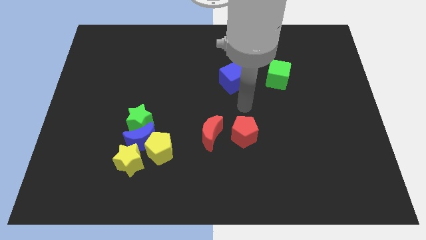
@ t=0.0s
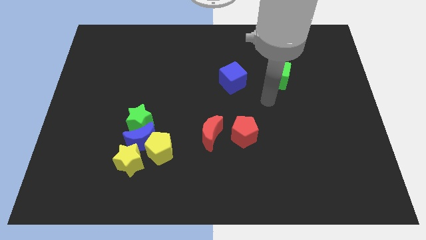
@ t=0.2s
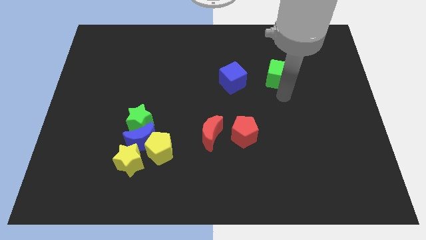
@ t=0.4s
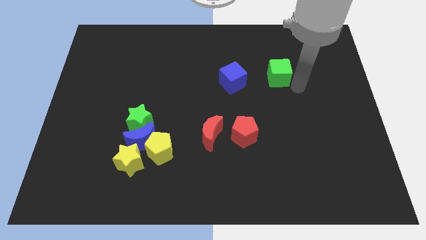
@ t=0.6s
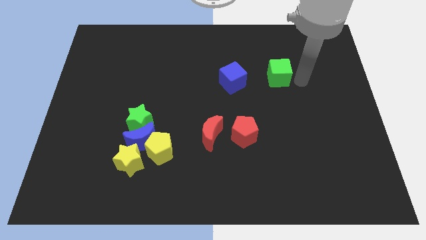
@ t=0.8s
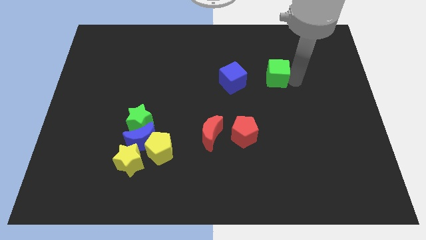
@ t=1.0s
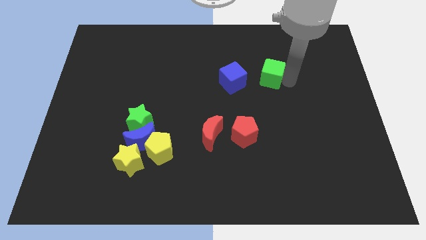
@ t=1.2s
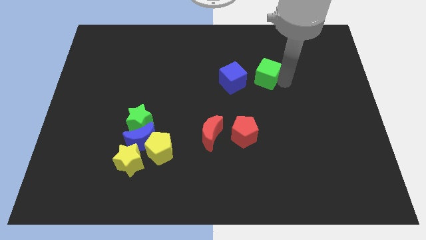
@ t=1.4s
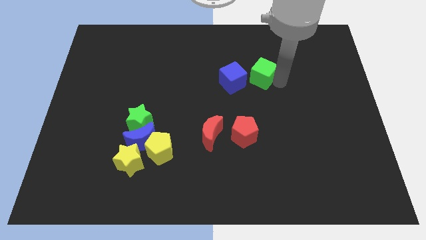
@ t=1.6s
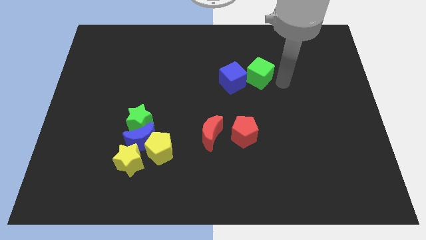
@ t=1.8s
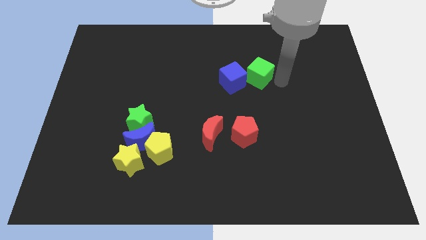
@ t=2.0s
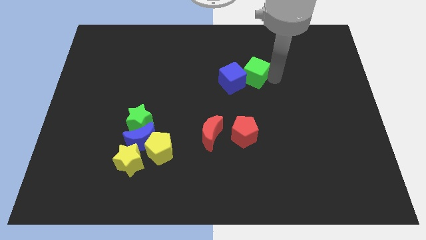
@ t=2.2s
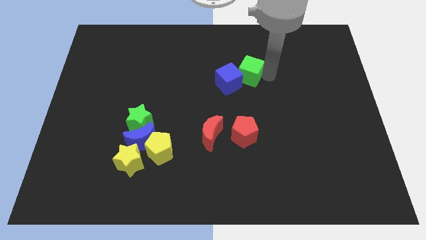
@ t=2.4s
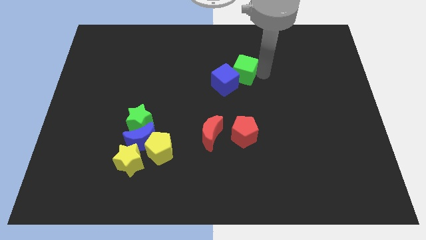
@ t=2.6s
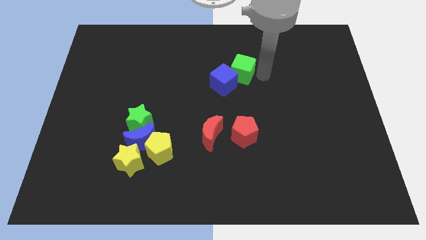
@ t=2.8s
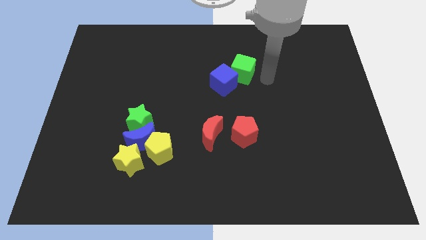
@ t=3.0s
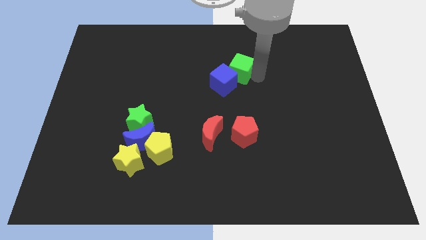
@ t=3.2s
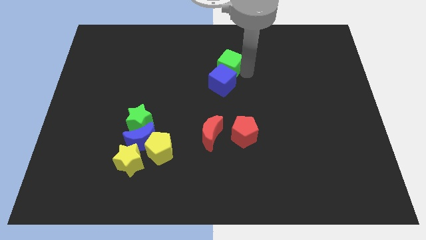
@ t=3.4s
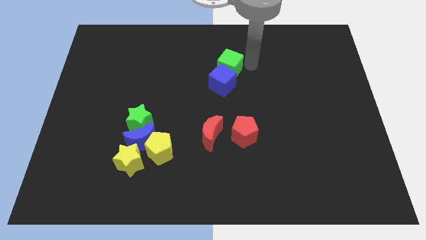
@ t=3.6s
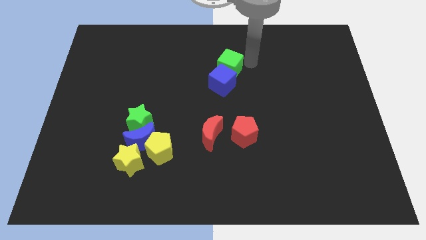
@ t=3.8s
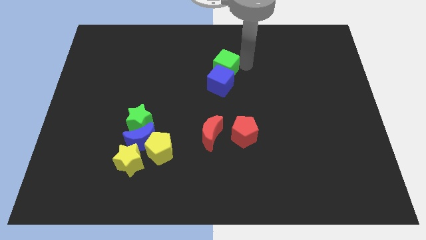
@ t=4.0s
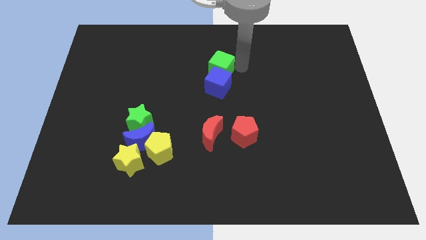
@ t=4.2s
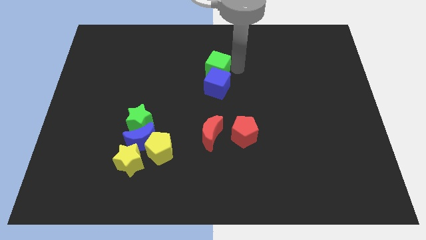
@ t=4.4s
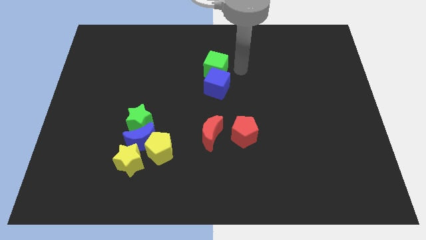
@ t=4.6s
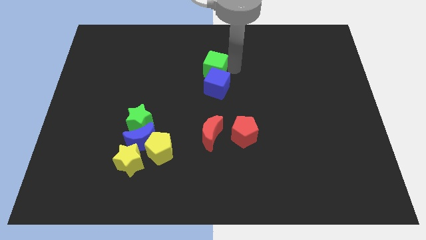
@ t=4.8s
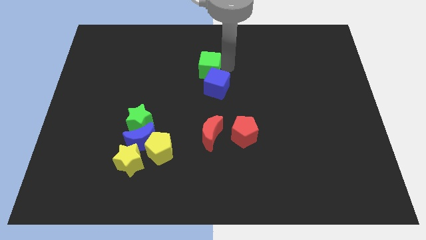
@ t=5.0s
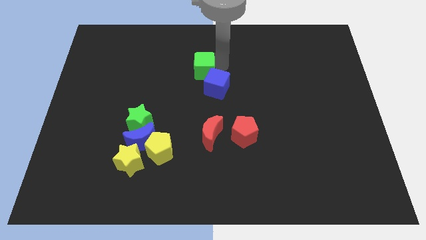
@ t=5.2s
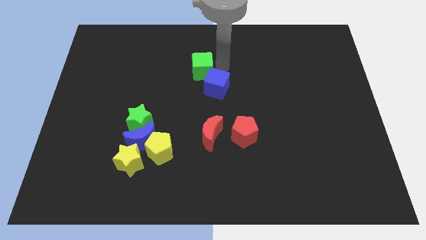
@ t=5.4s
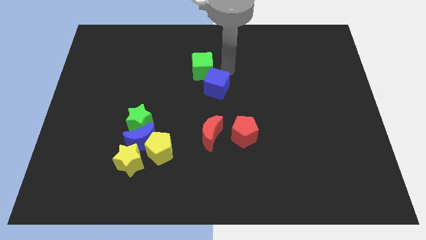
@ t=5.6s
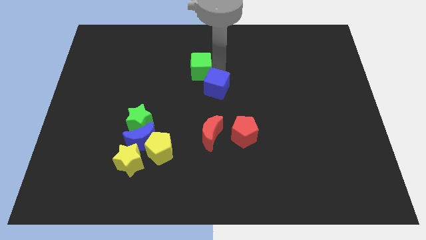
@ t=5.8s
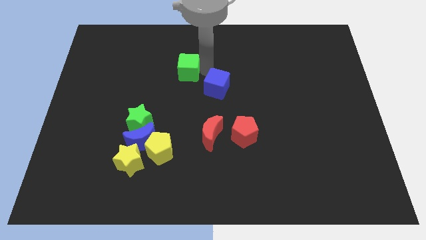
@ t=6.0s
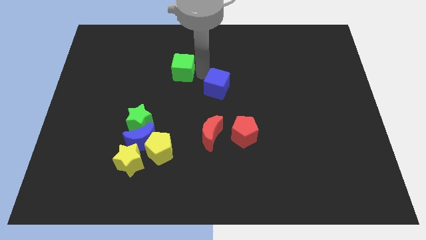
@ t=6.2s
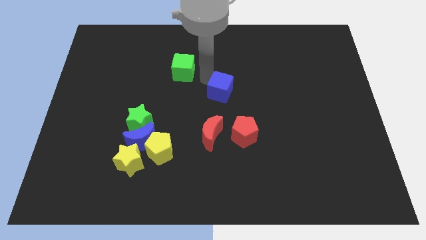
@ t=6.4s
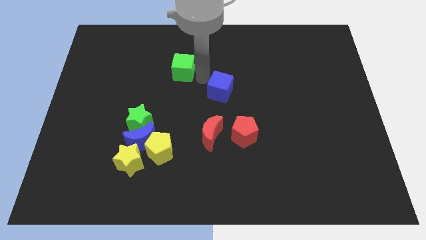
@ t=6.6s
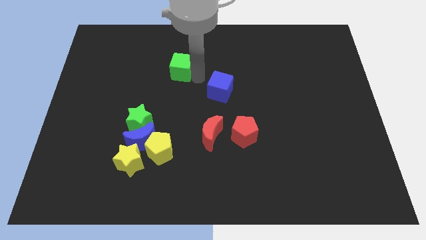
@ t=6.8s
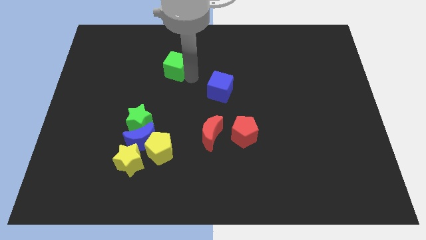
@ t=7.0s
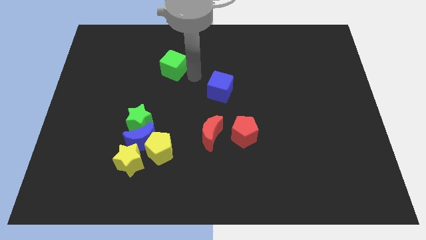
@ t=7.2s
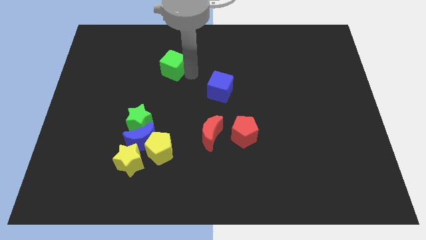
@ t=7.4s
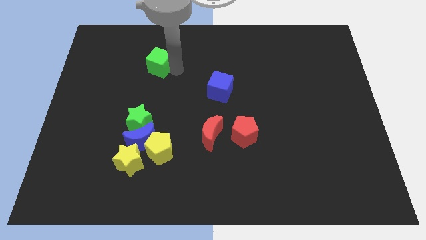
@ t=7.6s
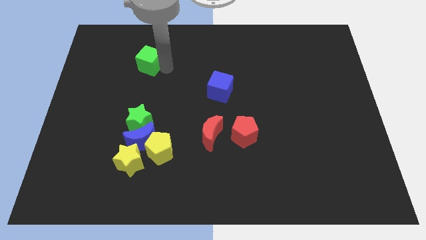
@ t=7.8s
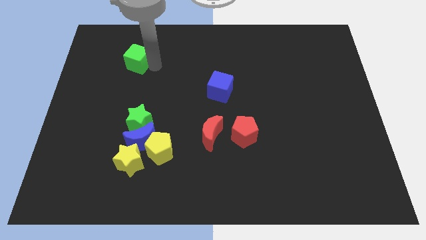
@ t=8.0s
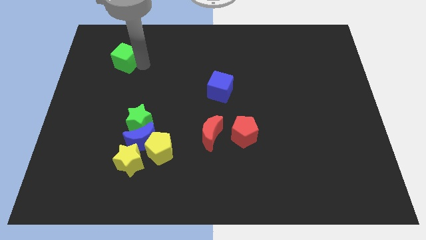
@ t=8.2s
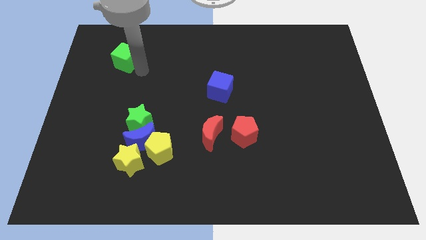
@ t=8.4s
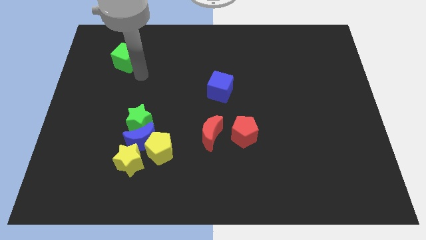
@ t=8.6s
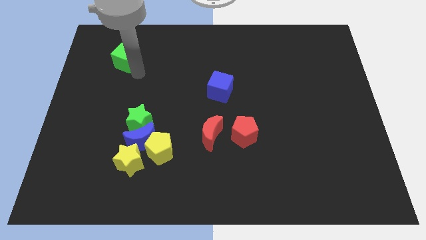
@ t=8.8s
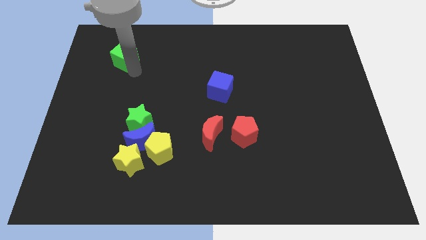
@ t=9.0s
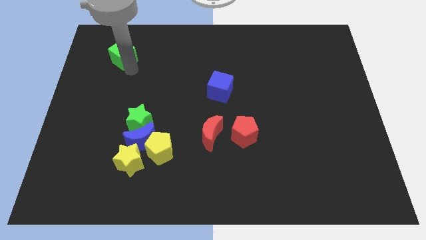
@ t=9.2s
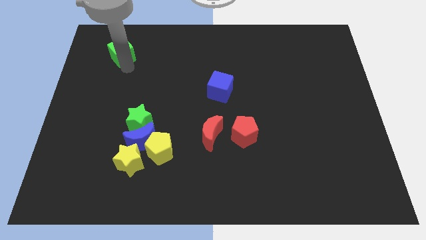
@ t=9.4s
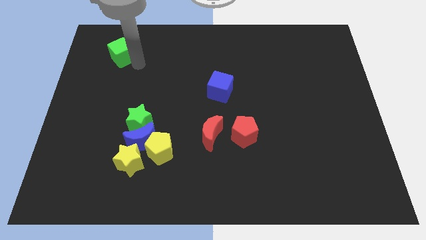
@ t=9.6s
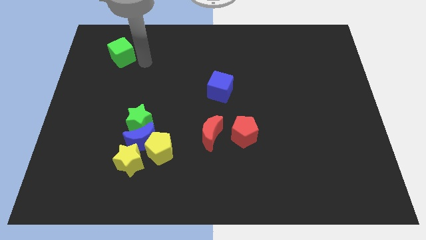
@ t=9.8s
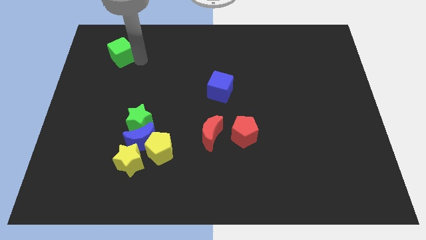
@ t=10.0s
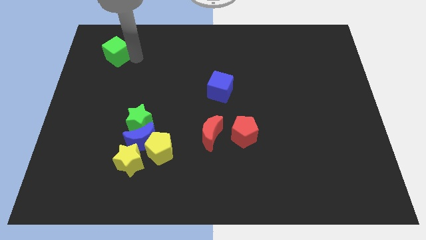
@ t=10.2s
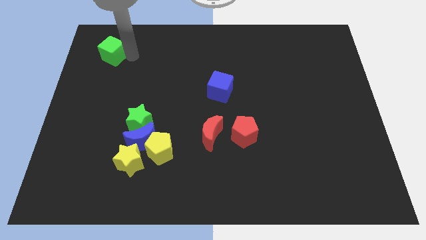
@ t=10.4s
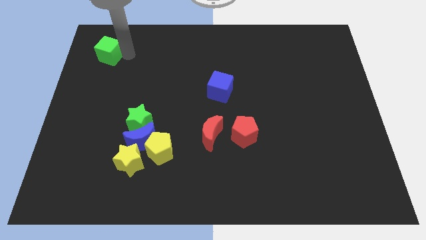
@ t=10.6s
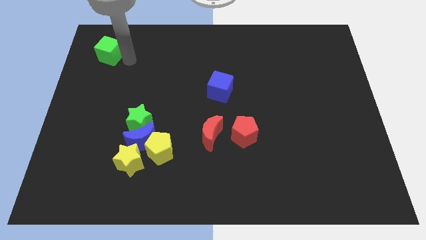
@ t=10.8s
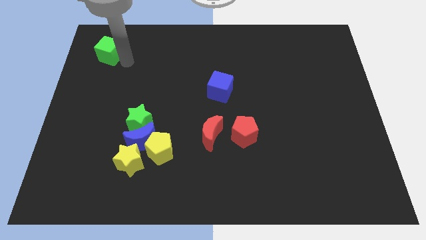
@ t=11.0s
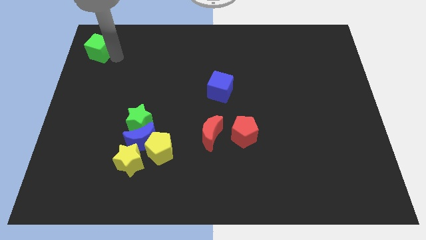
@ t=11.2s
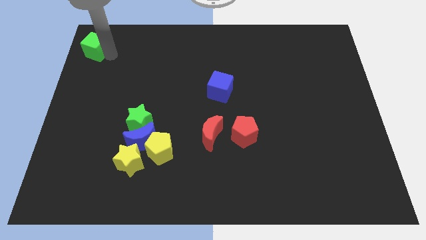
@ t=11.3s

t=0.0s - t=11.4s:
put the green cube to the top left corner

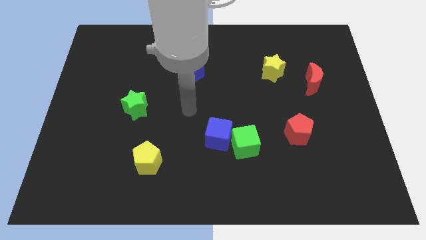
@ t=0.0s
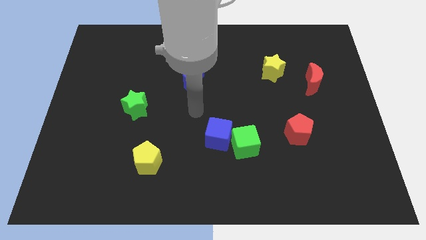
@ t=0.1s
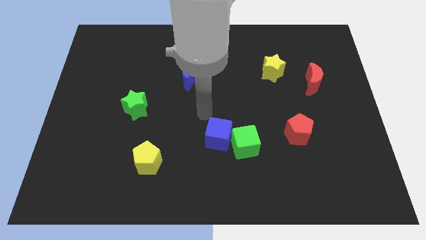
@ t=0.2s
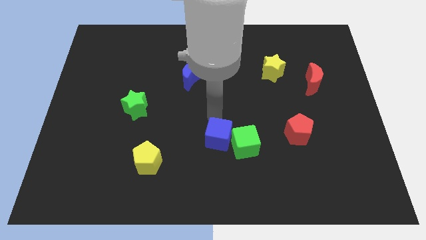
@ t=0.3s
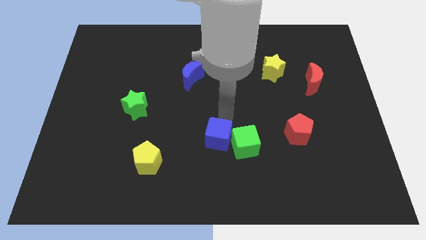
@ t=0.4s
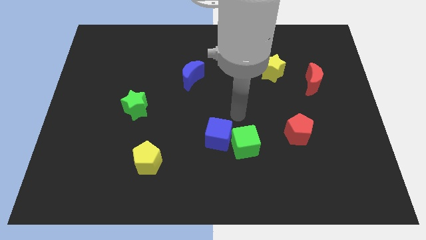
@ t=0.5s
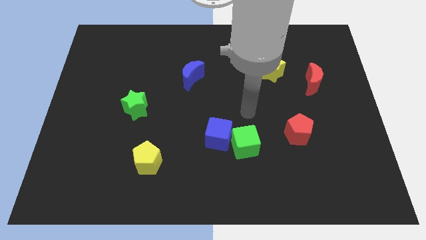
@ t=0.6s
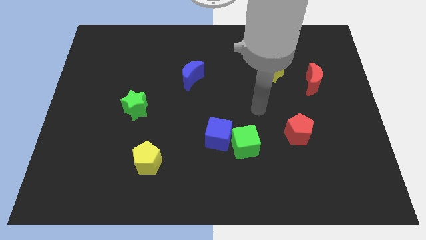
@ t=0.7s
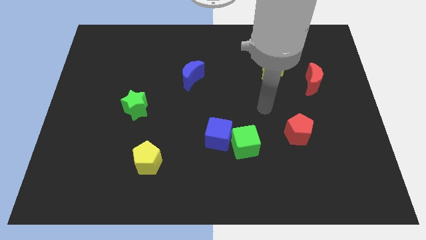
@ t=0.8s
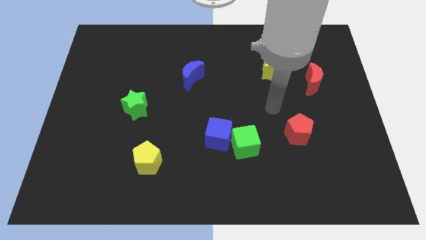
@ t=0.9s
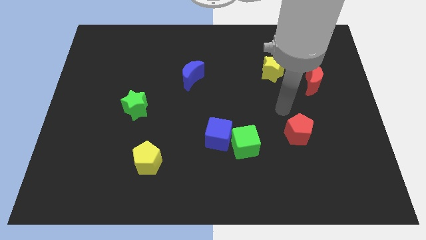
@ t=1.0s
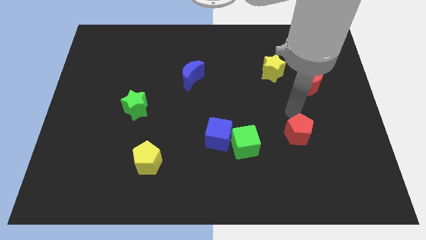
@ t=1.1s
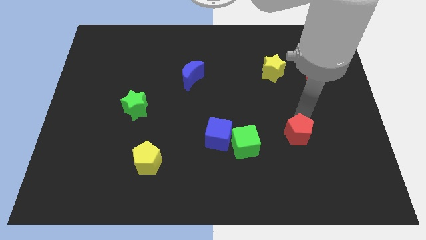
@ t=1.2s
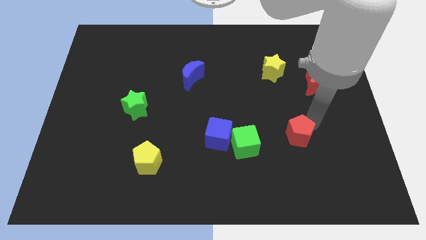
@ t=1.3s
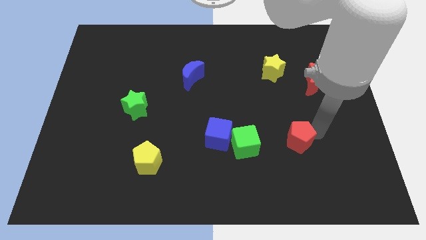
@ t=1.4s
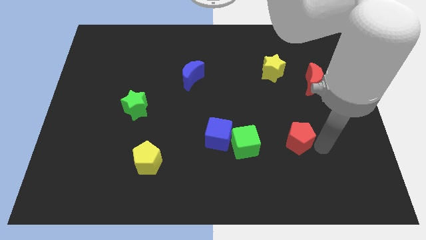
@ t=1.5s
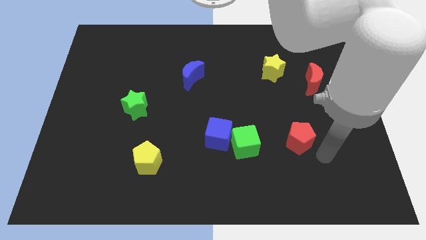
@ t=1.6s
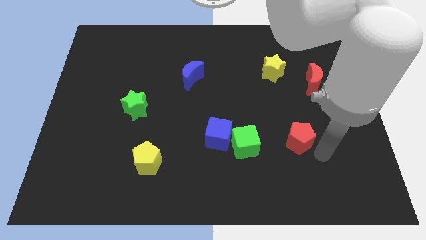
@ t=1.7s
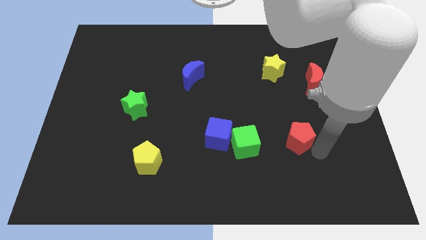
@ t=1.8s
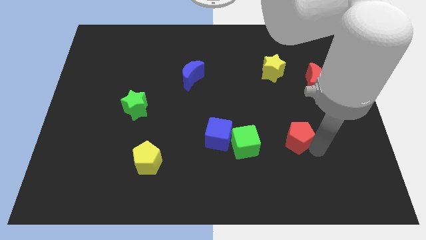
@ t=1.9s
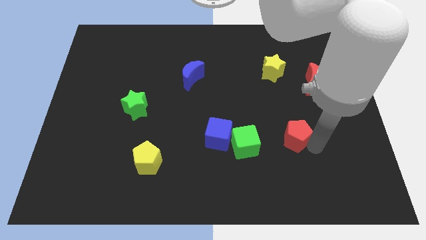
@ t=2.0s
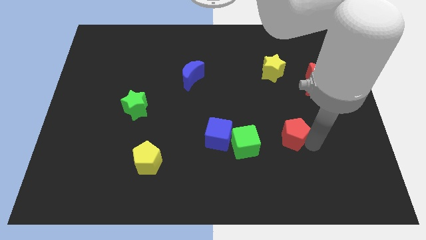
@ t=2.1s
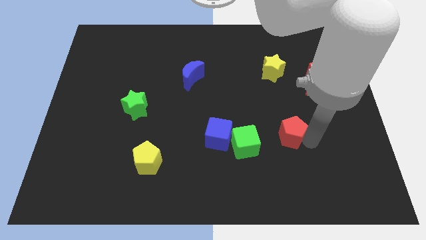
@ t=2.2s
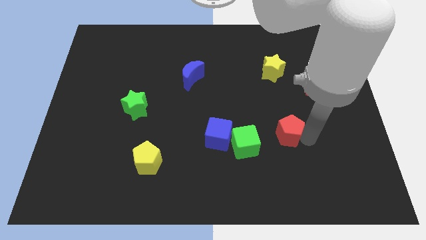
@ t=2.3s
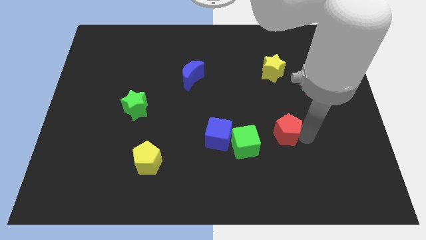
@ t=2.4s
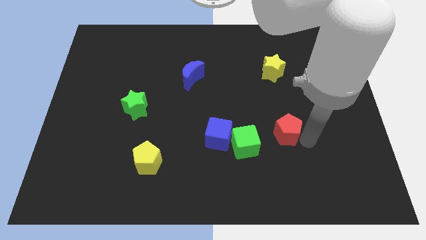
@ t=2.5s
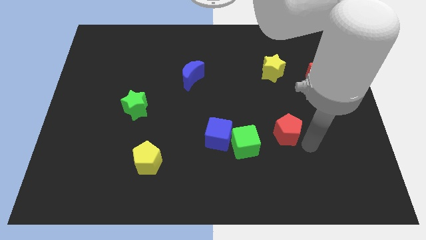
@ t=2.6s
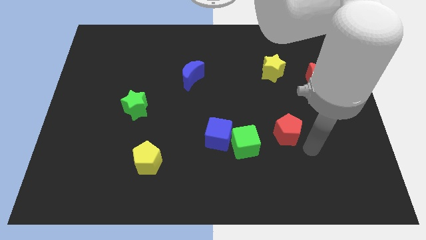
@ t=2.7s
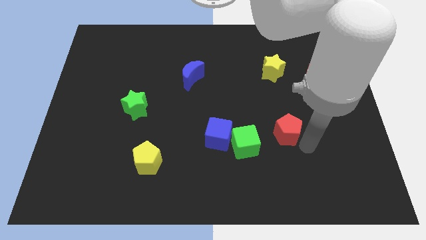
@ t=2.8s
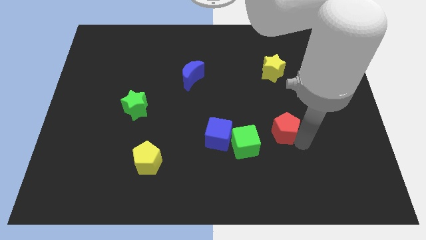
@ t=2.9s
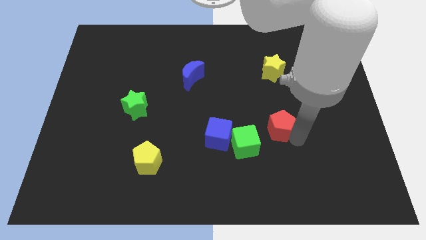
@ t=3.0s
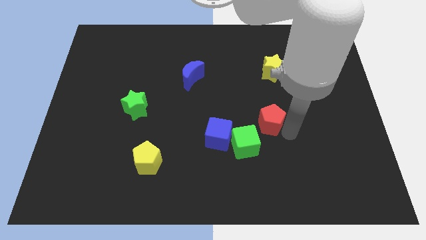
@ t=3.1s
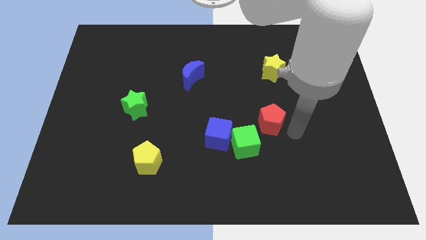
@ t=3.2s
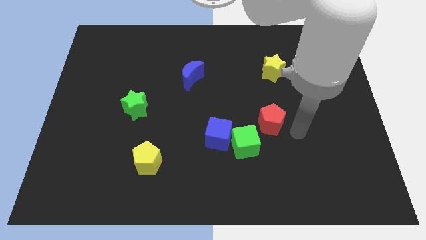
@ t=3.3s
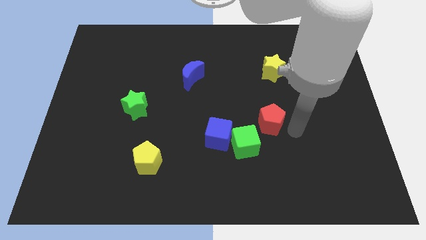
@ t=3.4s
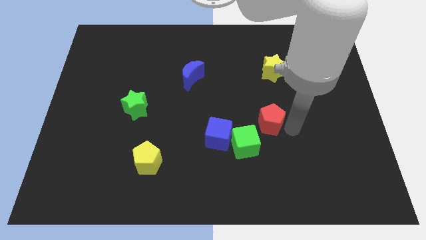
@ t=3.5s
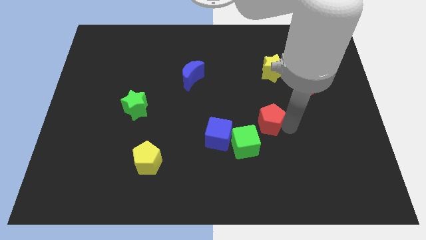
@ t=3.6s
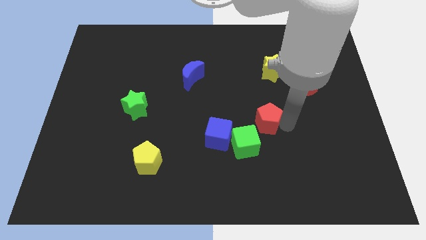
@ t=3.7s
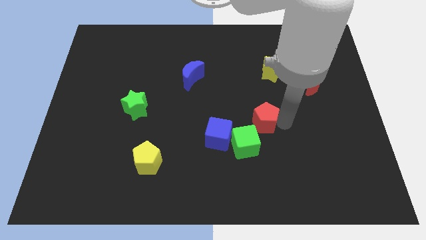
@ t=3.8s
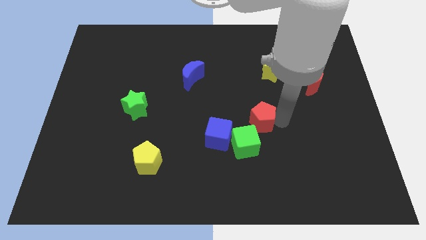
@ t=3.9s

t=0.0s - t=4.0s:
push the red pentagon to the middle of the board
